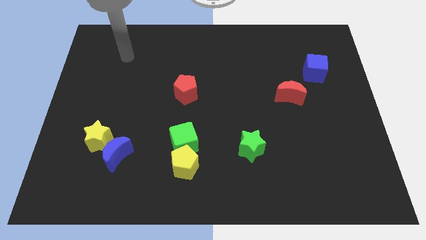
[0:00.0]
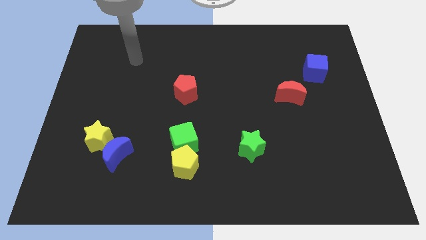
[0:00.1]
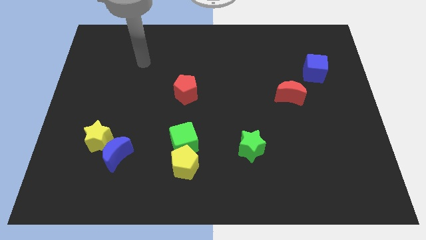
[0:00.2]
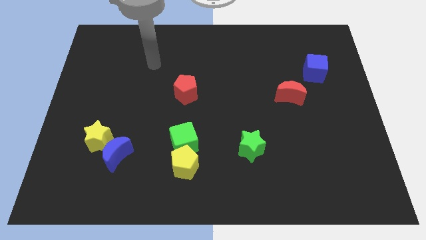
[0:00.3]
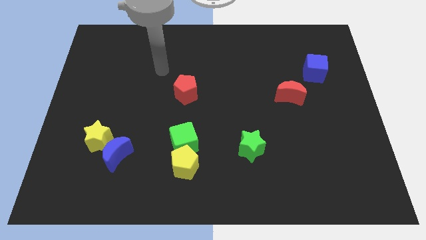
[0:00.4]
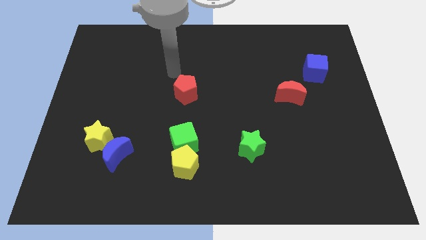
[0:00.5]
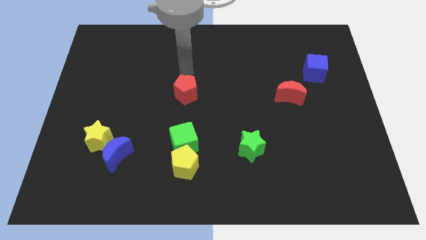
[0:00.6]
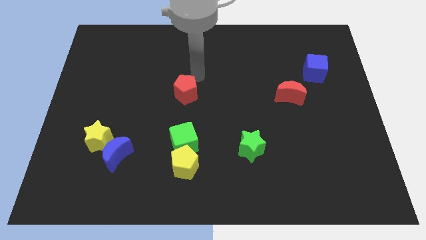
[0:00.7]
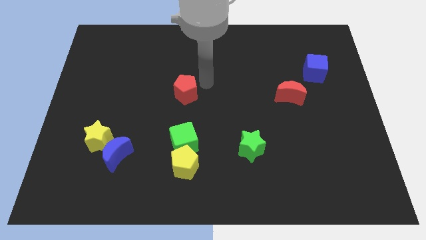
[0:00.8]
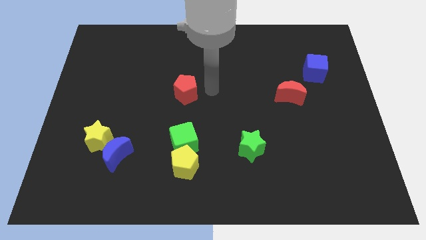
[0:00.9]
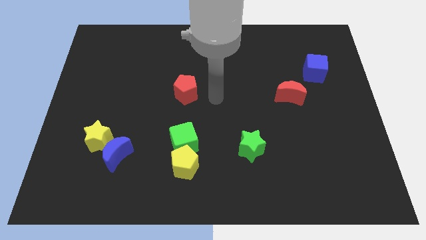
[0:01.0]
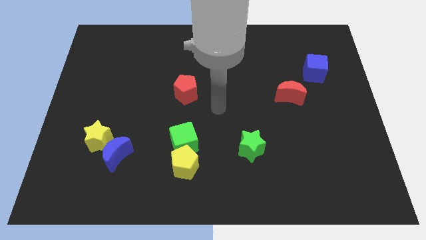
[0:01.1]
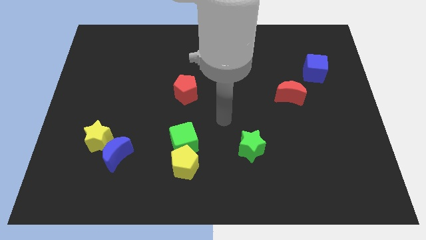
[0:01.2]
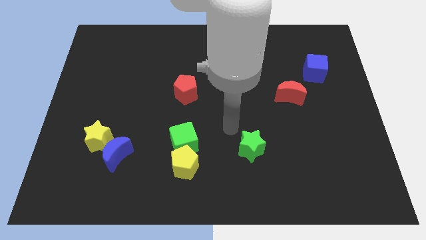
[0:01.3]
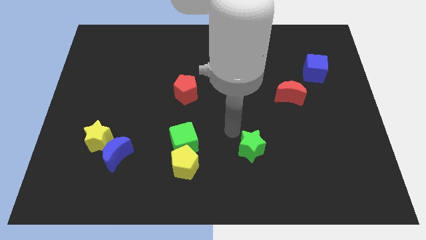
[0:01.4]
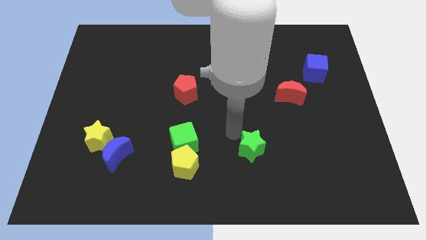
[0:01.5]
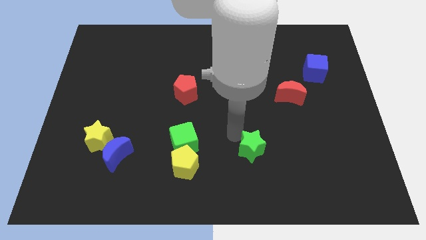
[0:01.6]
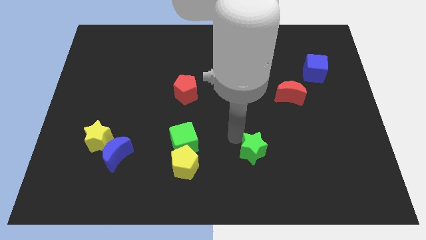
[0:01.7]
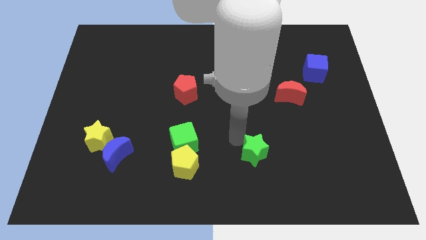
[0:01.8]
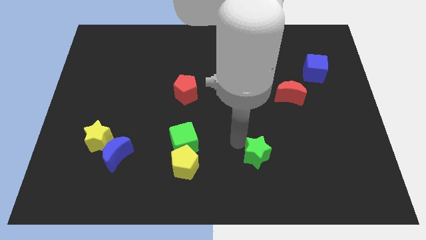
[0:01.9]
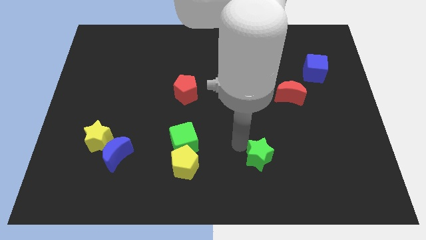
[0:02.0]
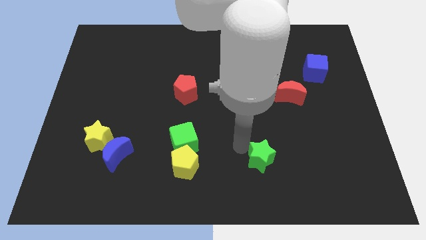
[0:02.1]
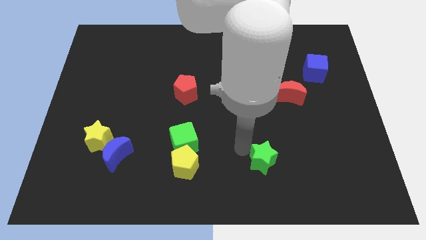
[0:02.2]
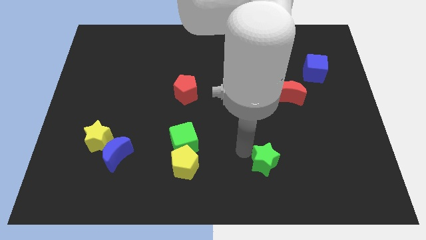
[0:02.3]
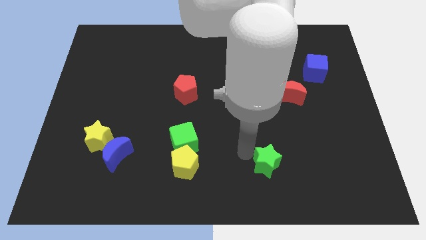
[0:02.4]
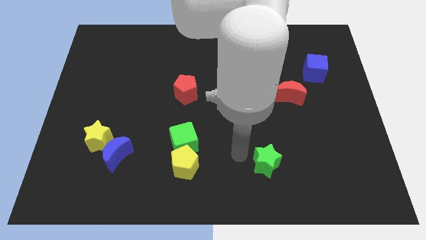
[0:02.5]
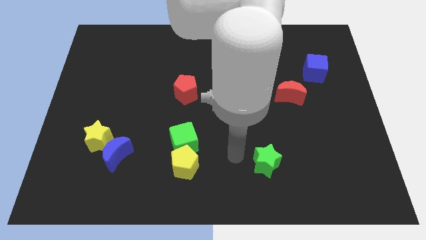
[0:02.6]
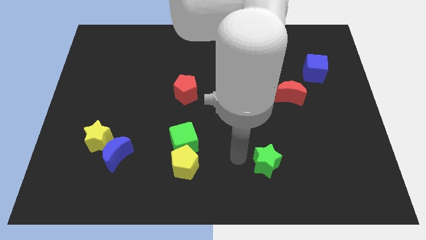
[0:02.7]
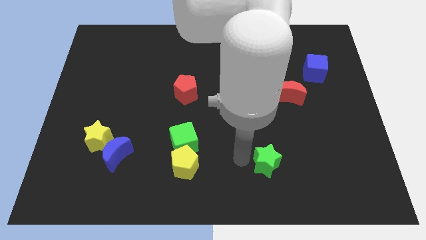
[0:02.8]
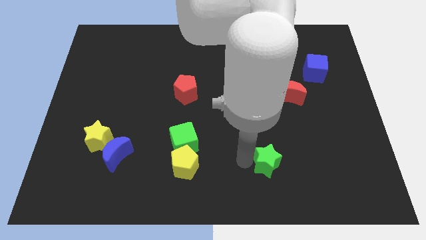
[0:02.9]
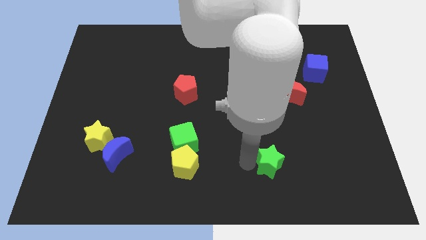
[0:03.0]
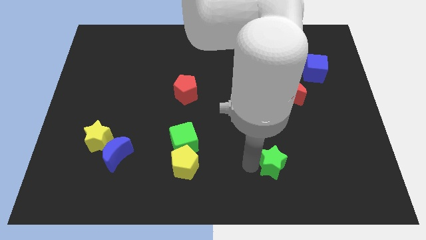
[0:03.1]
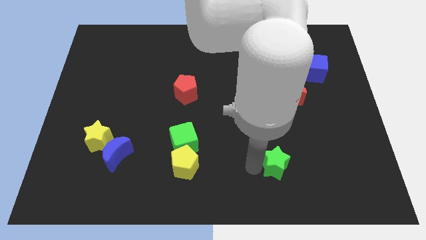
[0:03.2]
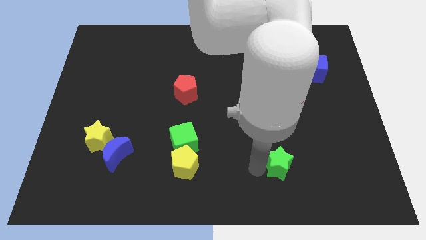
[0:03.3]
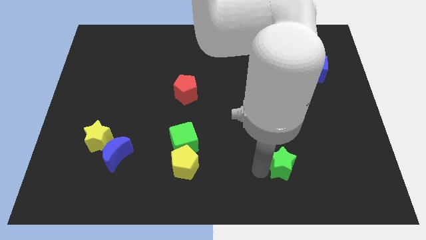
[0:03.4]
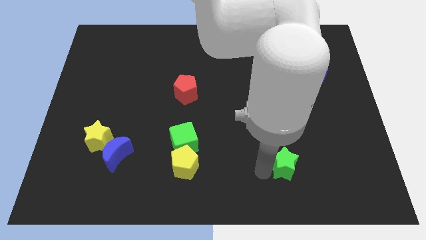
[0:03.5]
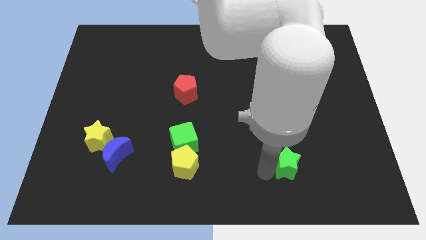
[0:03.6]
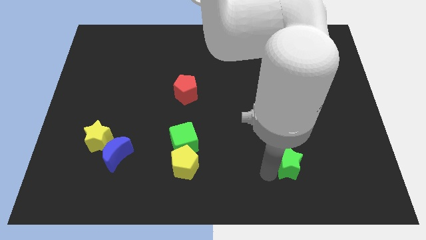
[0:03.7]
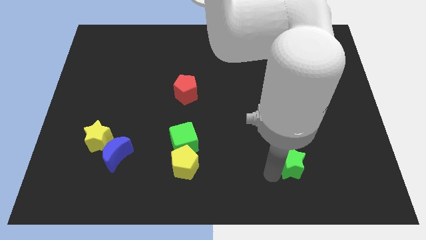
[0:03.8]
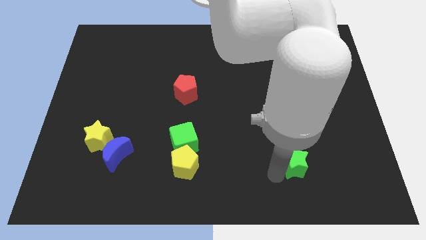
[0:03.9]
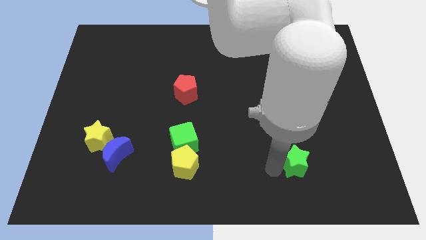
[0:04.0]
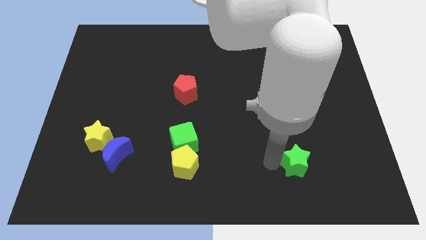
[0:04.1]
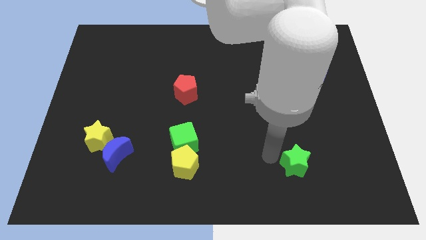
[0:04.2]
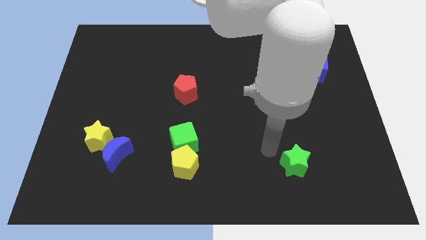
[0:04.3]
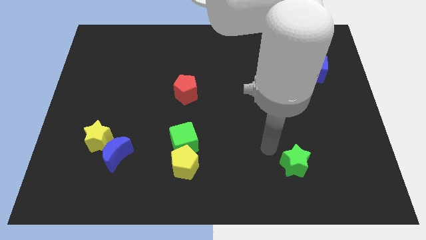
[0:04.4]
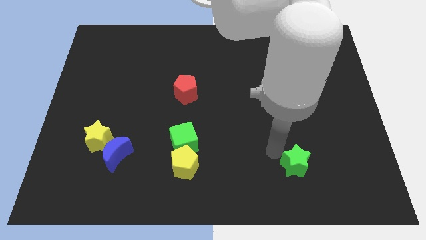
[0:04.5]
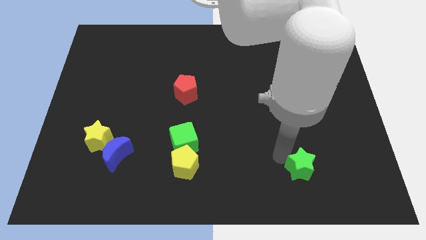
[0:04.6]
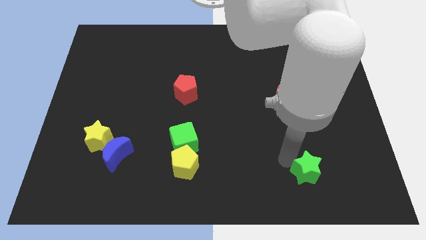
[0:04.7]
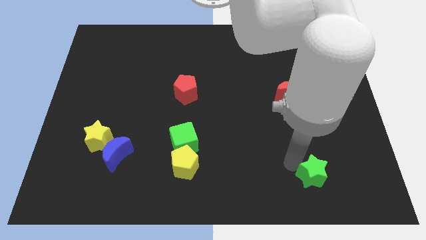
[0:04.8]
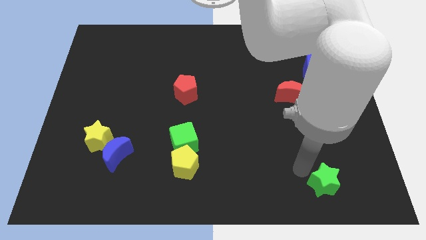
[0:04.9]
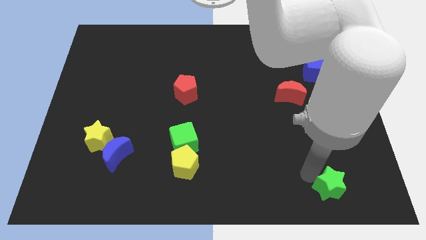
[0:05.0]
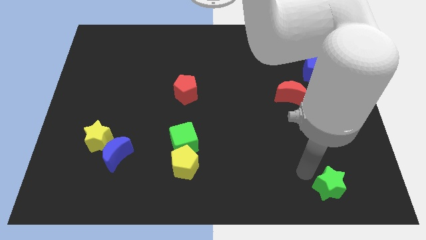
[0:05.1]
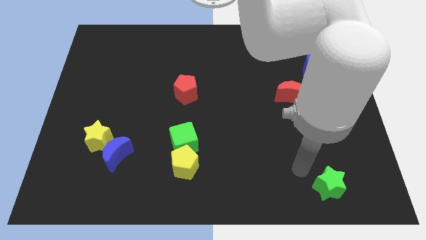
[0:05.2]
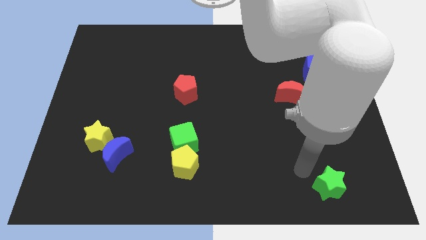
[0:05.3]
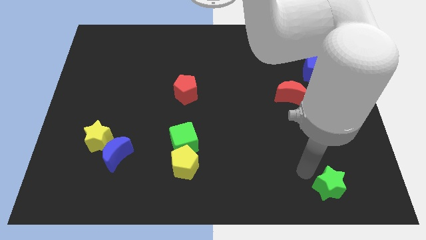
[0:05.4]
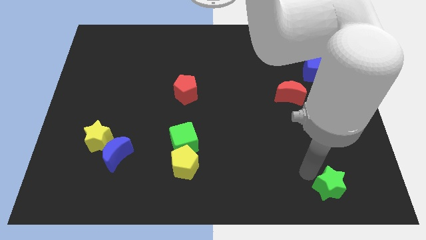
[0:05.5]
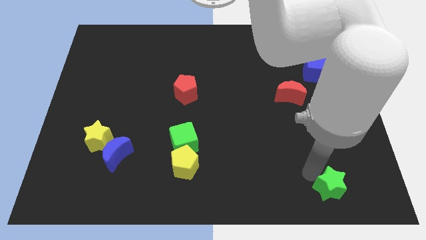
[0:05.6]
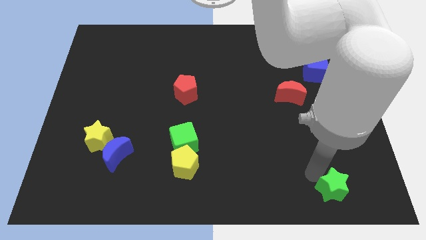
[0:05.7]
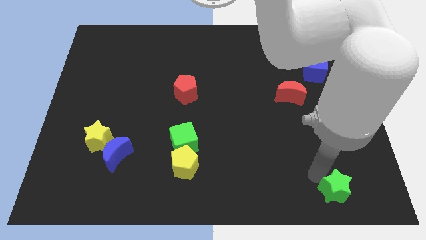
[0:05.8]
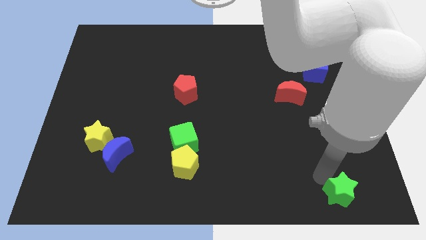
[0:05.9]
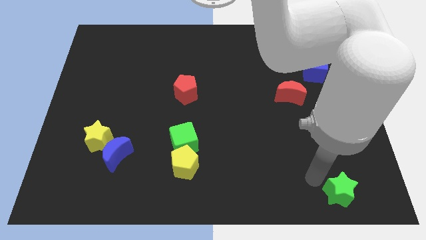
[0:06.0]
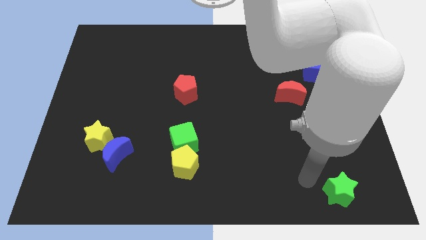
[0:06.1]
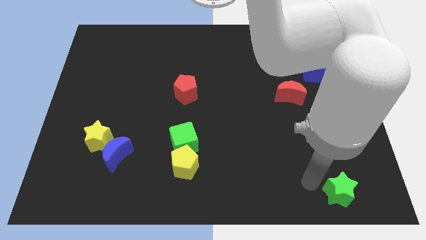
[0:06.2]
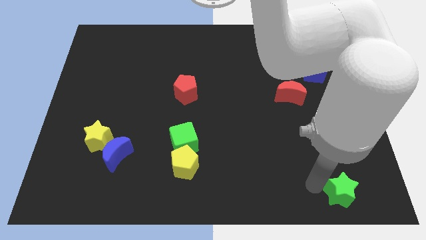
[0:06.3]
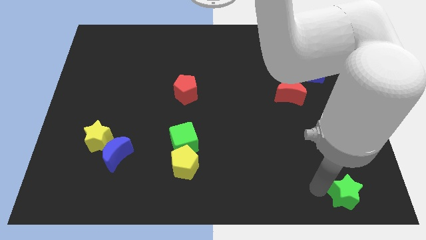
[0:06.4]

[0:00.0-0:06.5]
put the green star to the bottom right of the board
